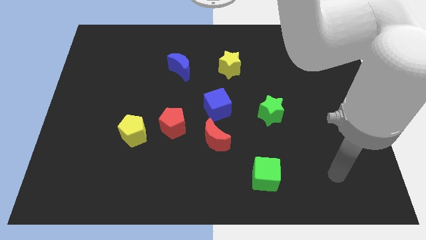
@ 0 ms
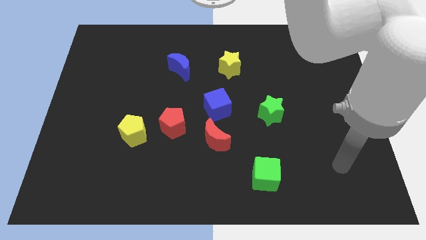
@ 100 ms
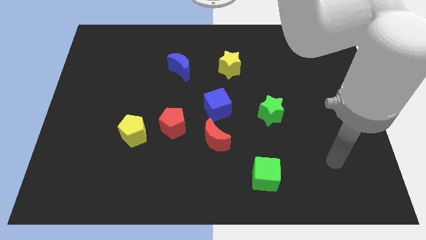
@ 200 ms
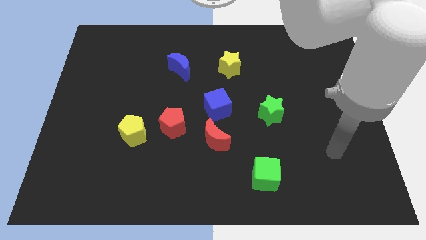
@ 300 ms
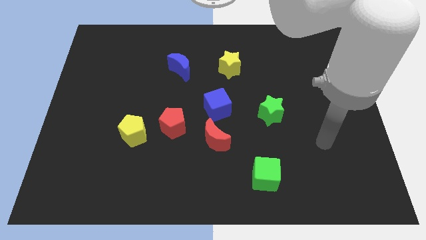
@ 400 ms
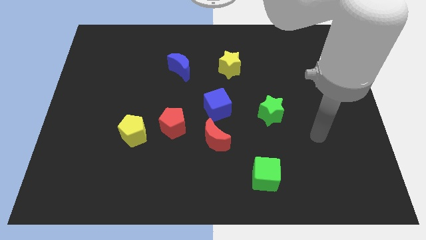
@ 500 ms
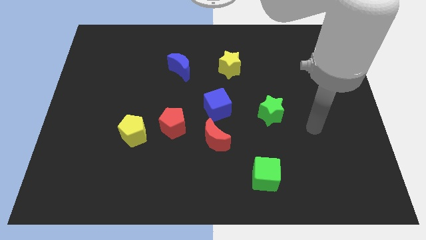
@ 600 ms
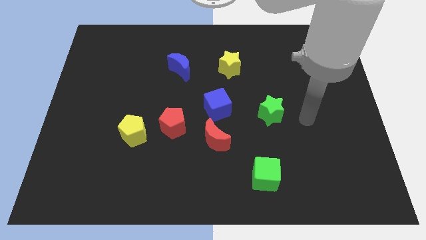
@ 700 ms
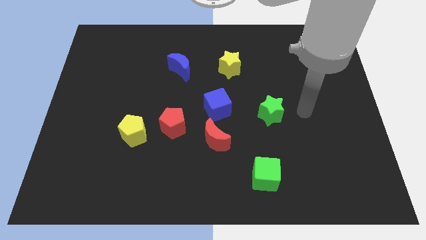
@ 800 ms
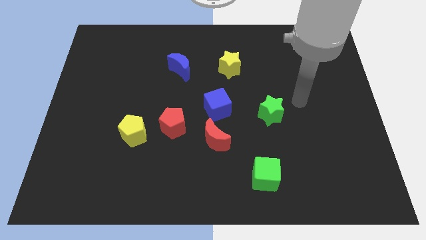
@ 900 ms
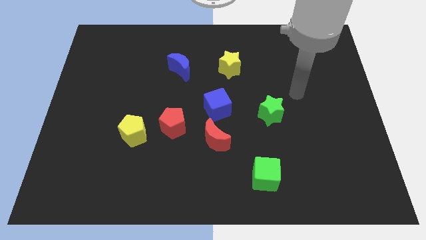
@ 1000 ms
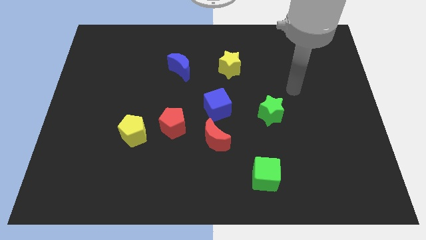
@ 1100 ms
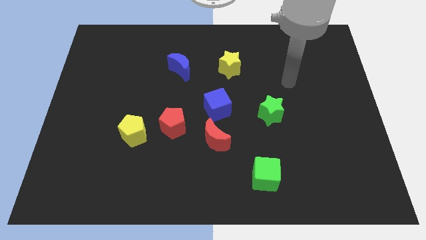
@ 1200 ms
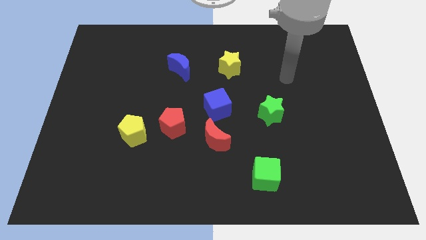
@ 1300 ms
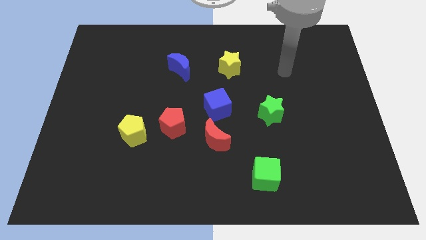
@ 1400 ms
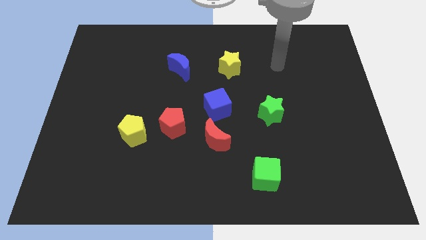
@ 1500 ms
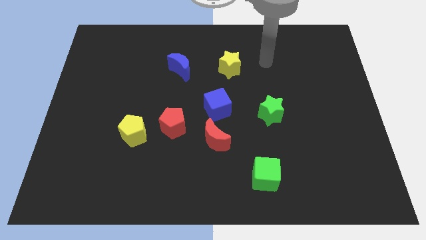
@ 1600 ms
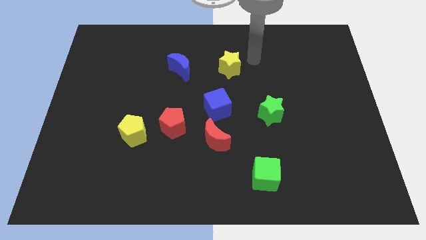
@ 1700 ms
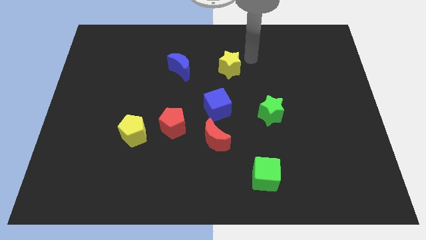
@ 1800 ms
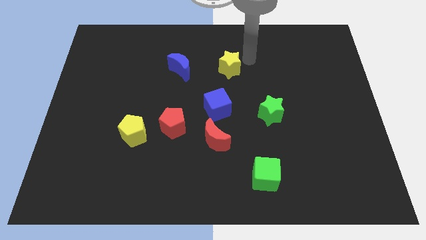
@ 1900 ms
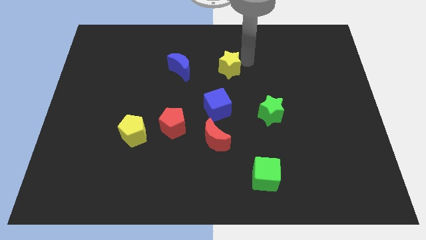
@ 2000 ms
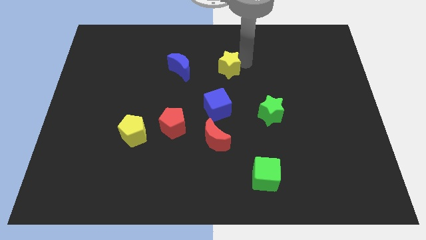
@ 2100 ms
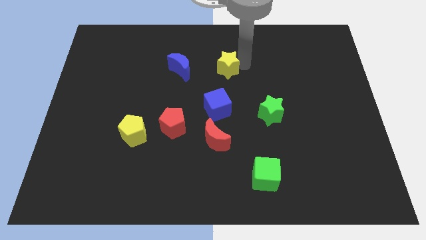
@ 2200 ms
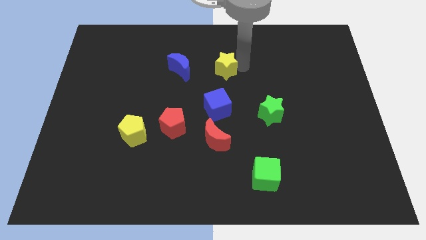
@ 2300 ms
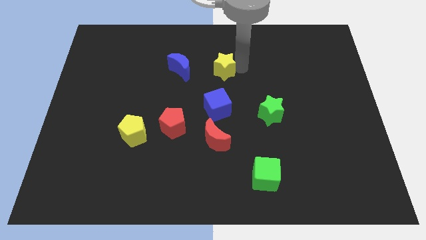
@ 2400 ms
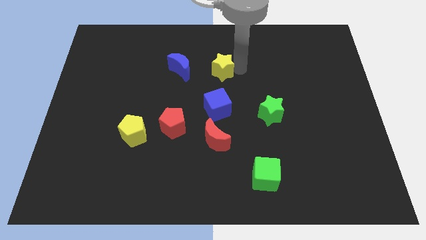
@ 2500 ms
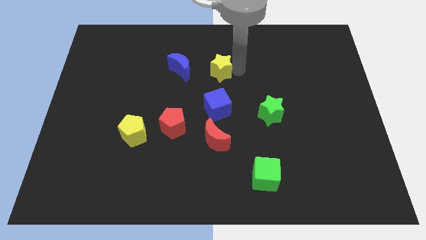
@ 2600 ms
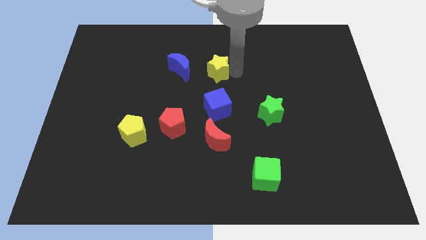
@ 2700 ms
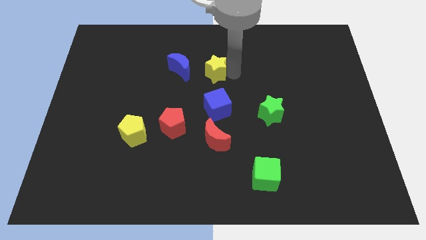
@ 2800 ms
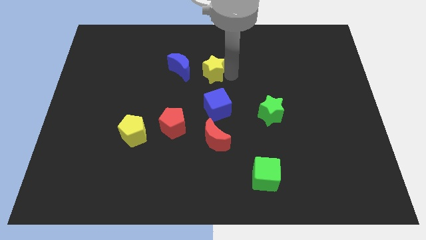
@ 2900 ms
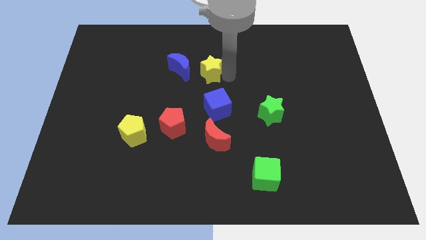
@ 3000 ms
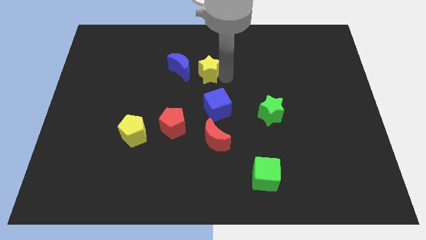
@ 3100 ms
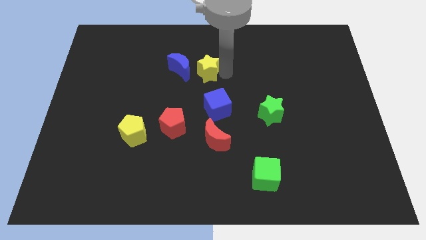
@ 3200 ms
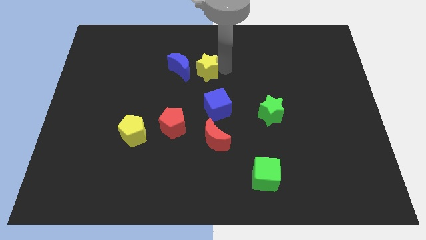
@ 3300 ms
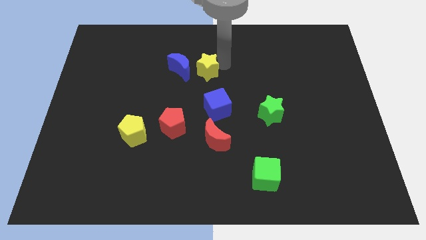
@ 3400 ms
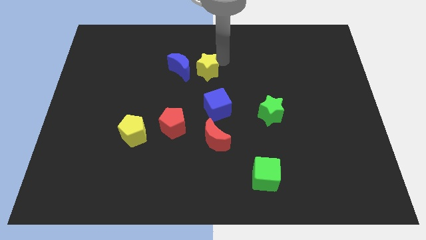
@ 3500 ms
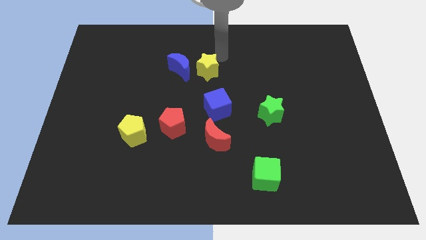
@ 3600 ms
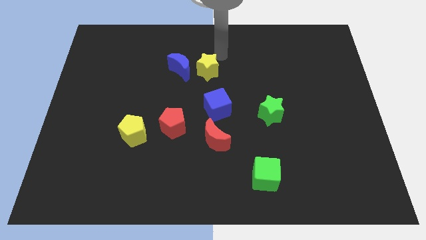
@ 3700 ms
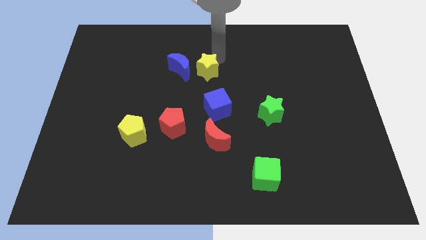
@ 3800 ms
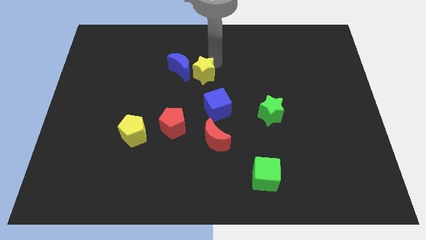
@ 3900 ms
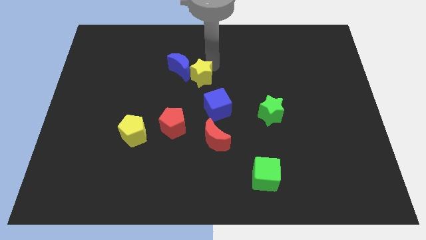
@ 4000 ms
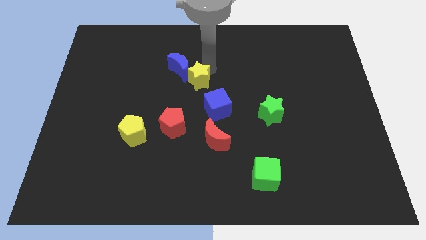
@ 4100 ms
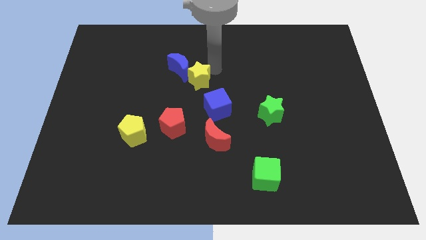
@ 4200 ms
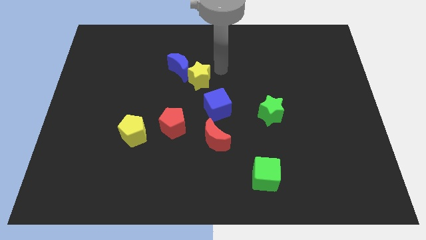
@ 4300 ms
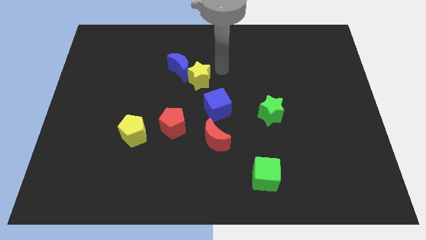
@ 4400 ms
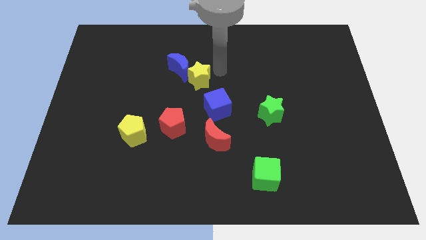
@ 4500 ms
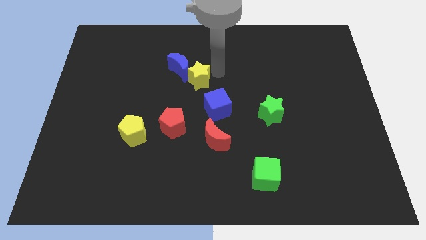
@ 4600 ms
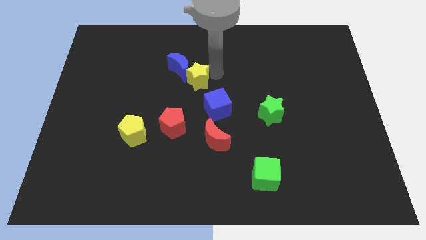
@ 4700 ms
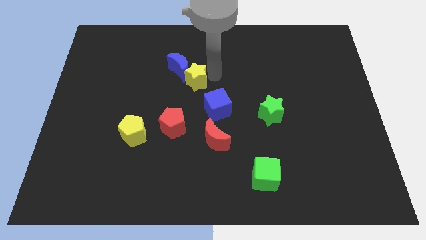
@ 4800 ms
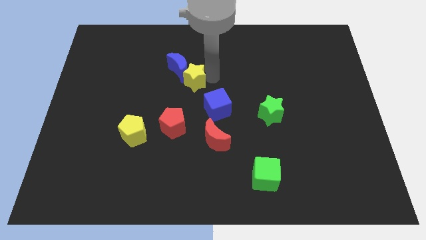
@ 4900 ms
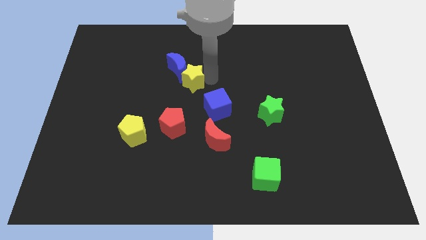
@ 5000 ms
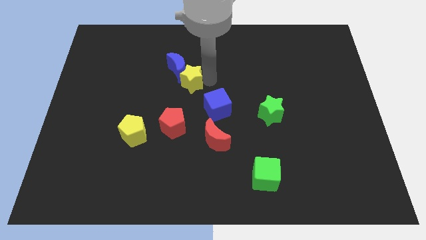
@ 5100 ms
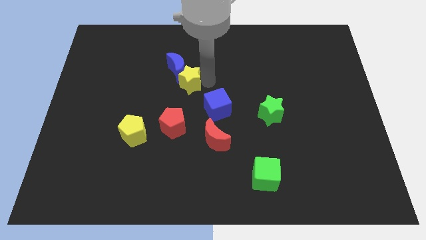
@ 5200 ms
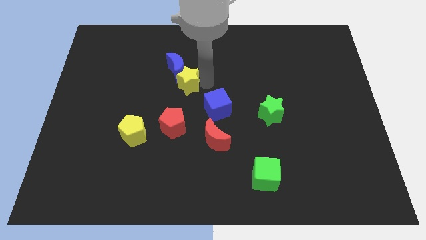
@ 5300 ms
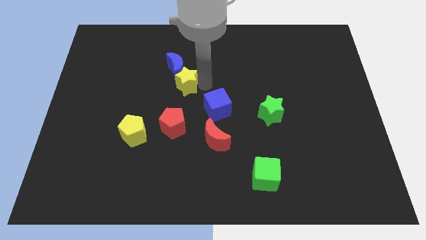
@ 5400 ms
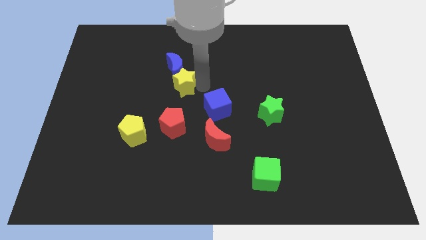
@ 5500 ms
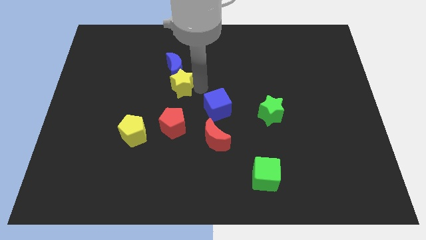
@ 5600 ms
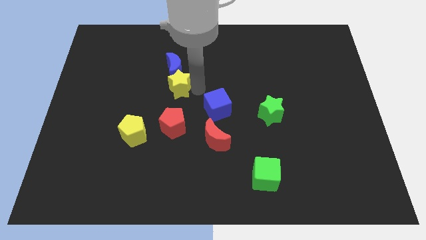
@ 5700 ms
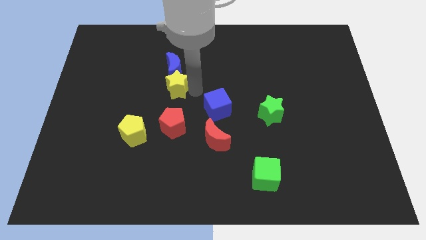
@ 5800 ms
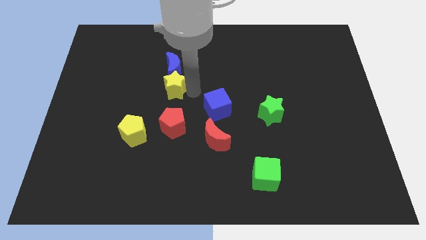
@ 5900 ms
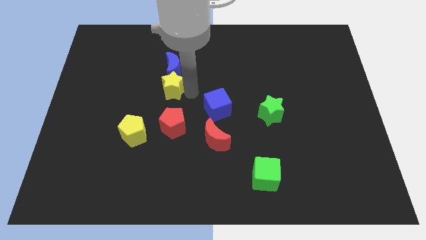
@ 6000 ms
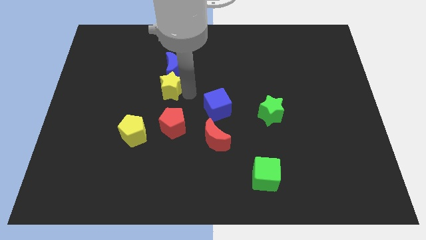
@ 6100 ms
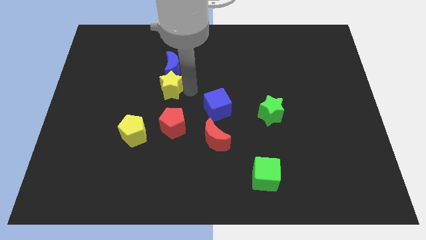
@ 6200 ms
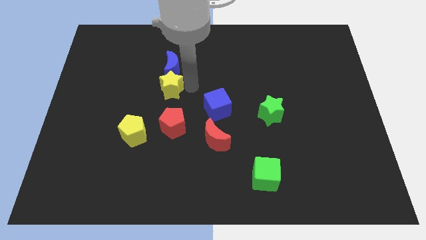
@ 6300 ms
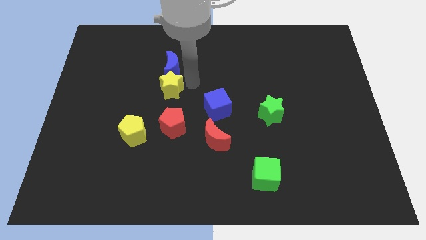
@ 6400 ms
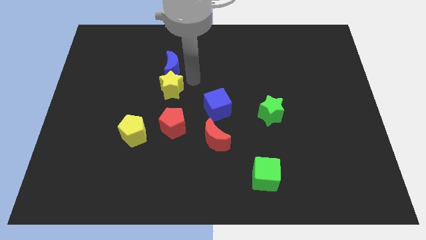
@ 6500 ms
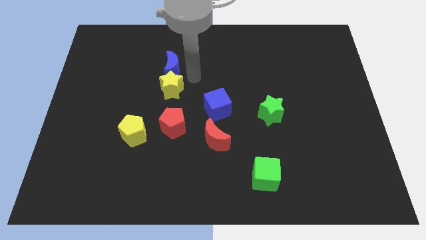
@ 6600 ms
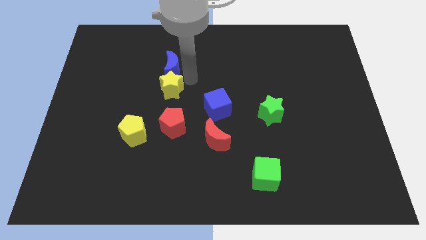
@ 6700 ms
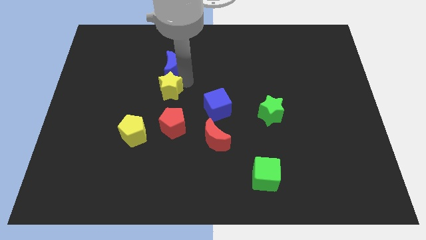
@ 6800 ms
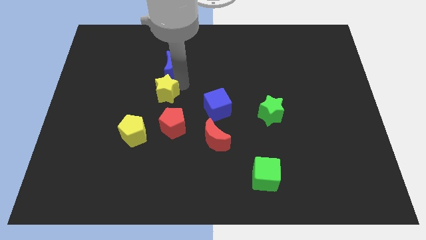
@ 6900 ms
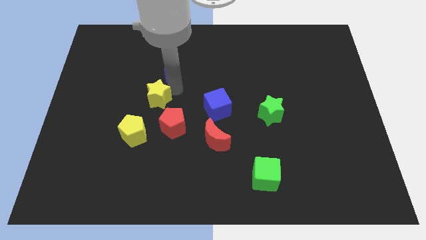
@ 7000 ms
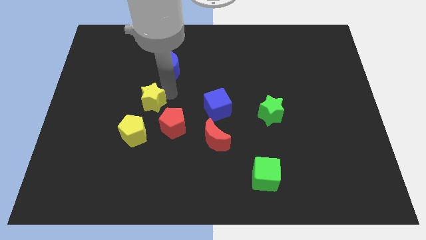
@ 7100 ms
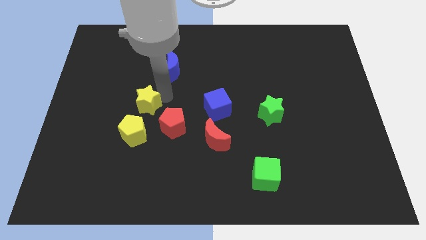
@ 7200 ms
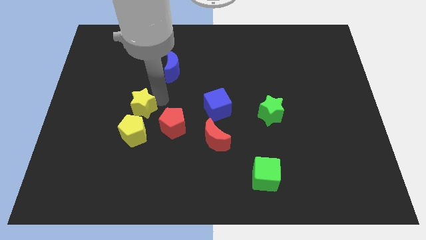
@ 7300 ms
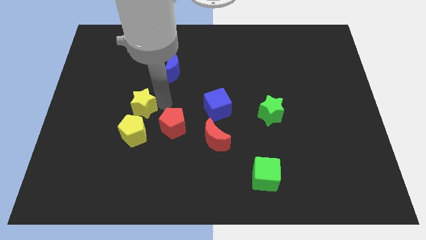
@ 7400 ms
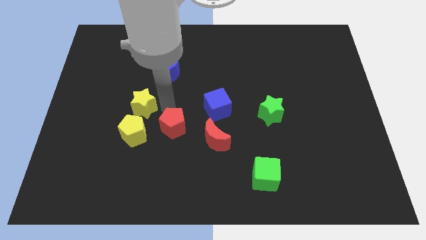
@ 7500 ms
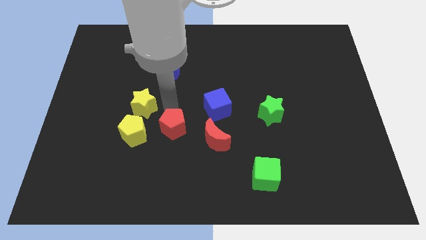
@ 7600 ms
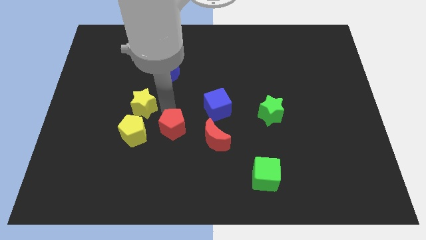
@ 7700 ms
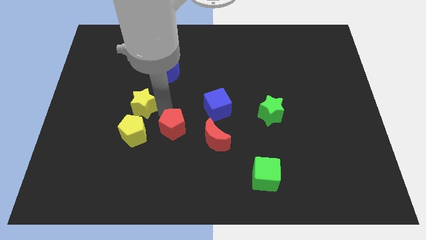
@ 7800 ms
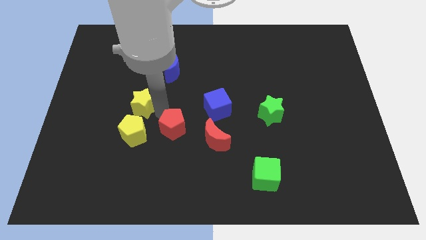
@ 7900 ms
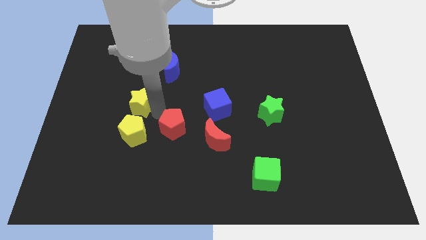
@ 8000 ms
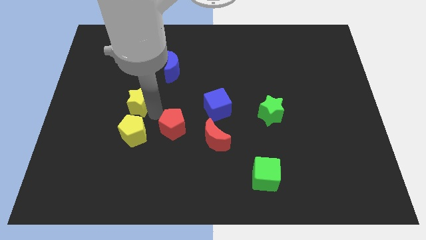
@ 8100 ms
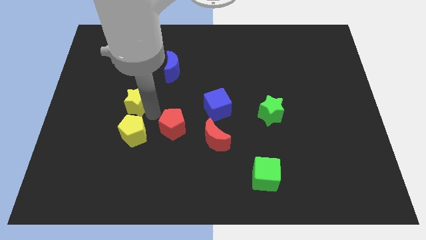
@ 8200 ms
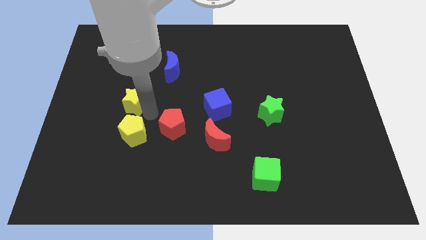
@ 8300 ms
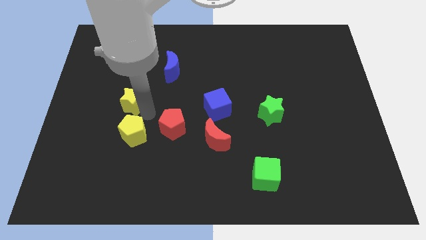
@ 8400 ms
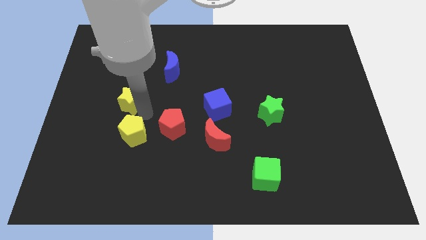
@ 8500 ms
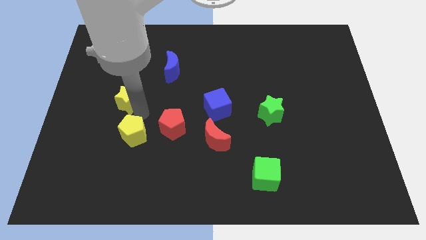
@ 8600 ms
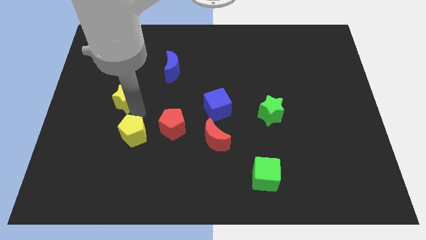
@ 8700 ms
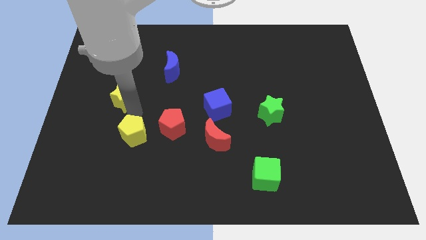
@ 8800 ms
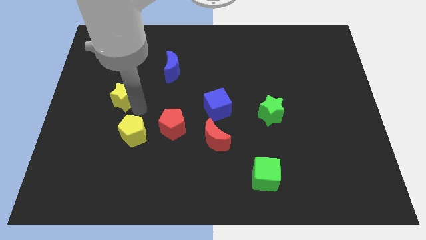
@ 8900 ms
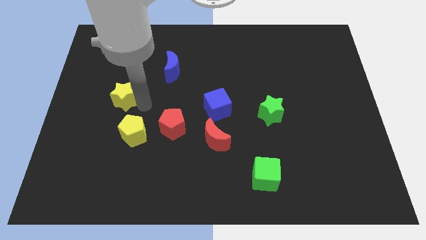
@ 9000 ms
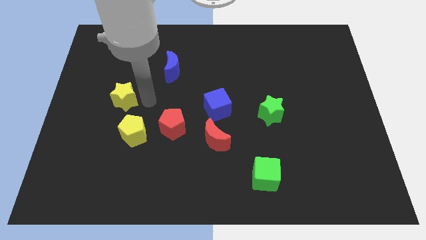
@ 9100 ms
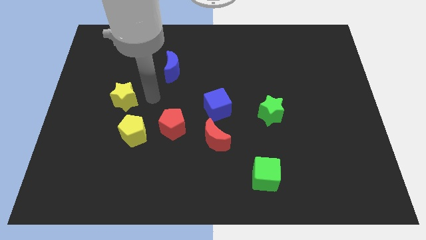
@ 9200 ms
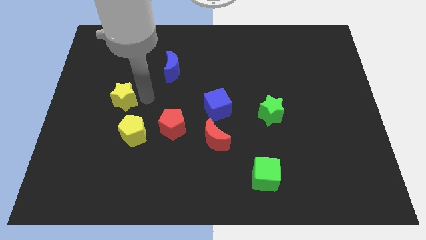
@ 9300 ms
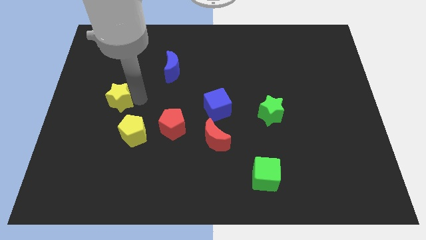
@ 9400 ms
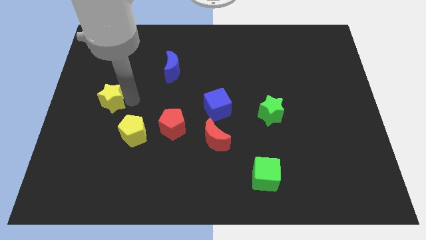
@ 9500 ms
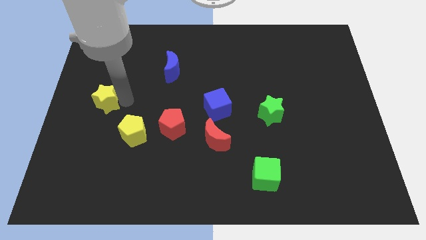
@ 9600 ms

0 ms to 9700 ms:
slide the yellow star to the center left
